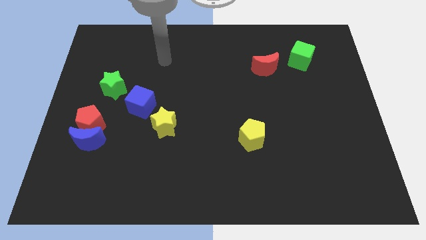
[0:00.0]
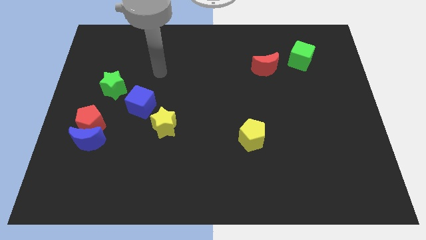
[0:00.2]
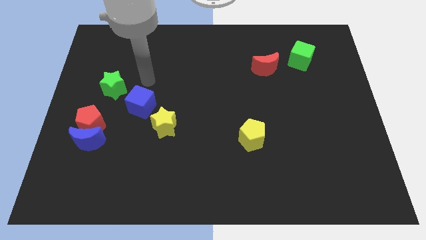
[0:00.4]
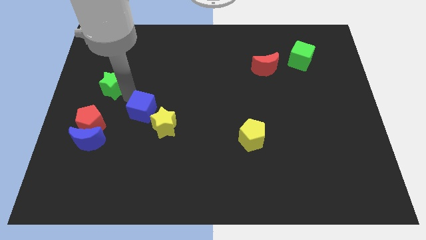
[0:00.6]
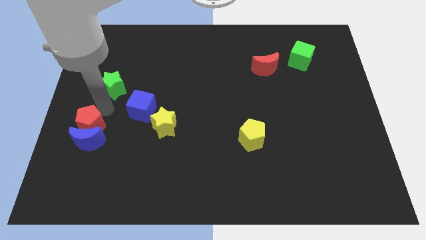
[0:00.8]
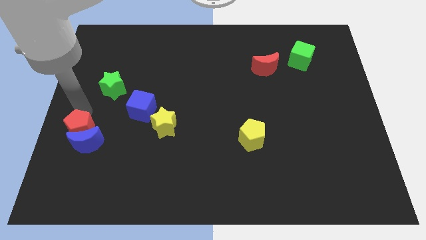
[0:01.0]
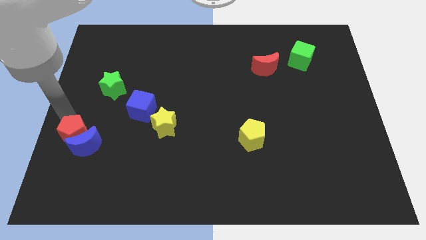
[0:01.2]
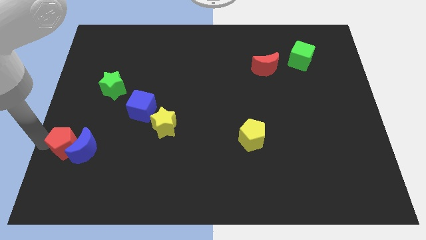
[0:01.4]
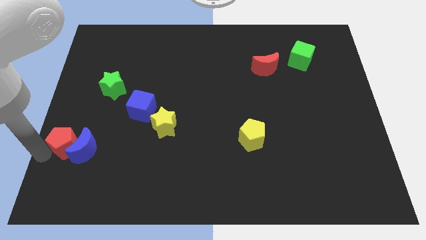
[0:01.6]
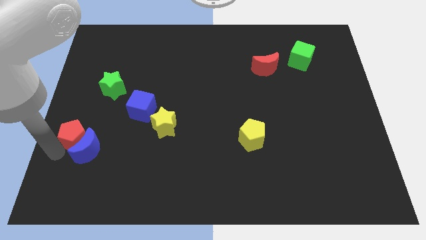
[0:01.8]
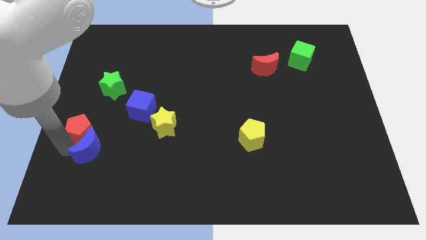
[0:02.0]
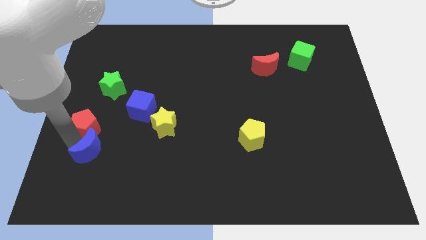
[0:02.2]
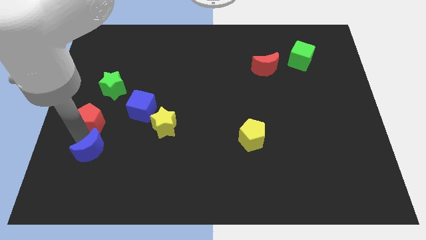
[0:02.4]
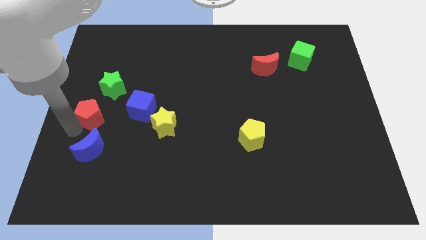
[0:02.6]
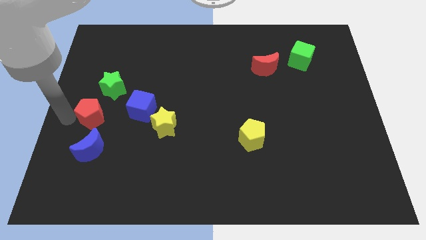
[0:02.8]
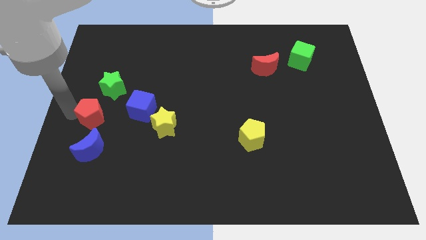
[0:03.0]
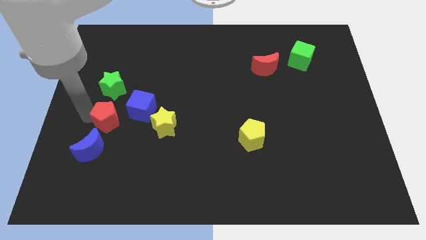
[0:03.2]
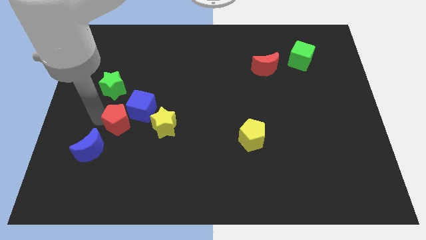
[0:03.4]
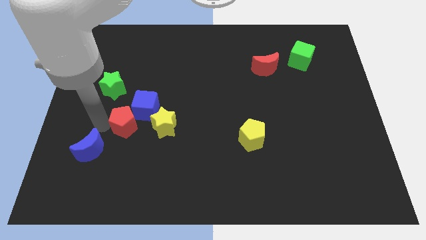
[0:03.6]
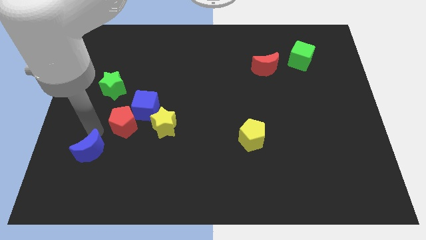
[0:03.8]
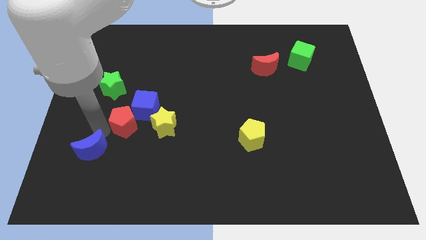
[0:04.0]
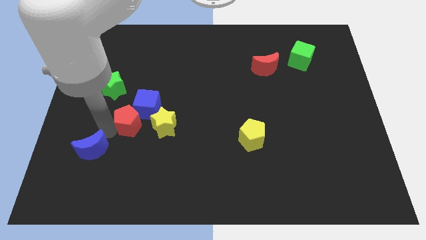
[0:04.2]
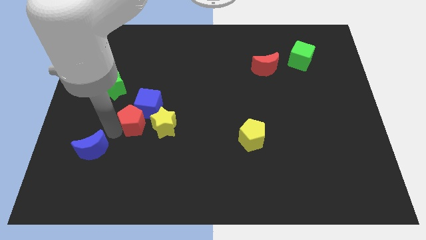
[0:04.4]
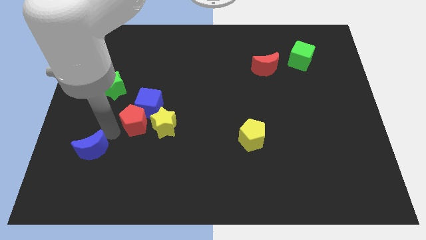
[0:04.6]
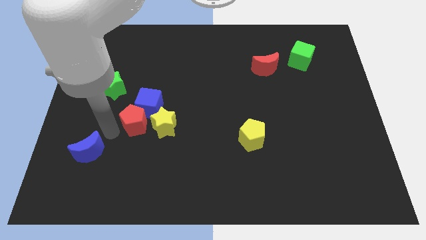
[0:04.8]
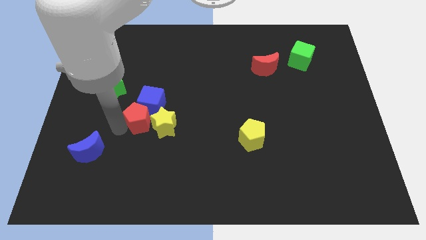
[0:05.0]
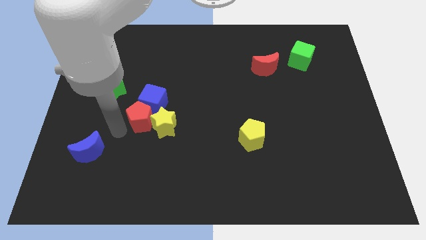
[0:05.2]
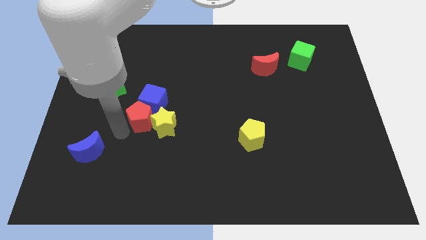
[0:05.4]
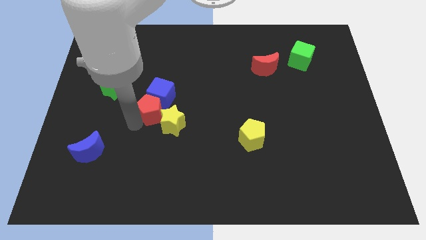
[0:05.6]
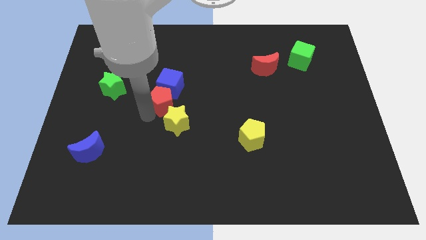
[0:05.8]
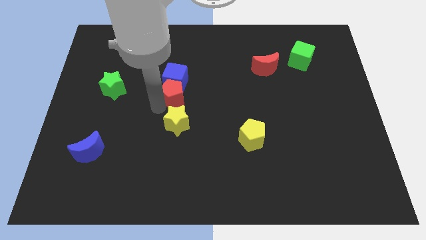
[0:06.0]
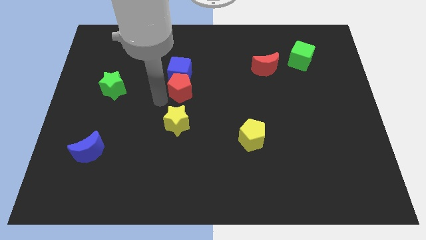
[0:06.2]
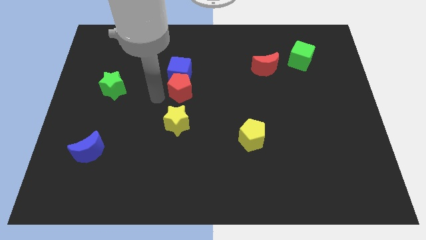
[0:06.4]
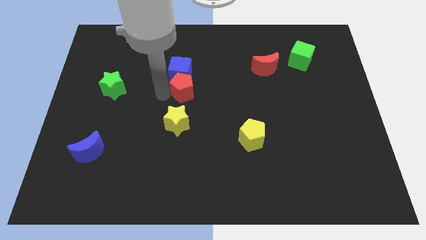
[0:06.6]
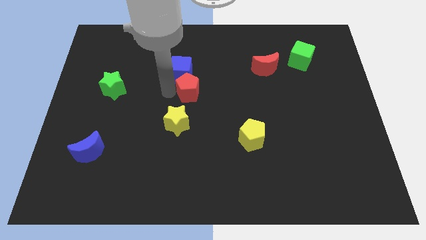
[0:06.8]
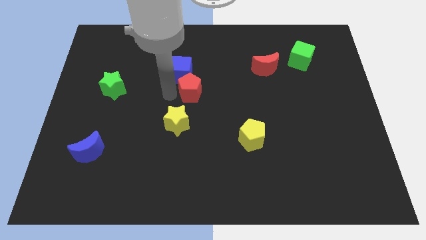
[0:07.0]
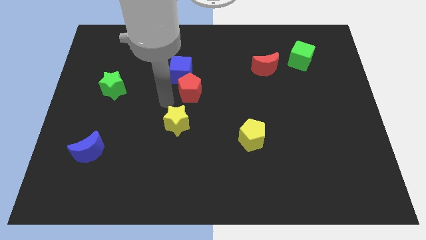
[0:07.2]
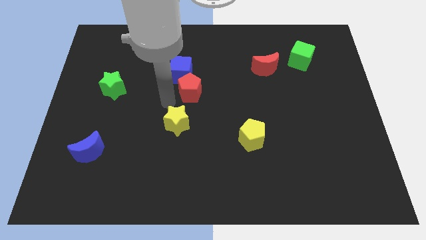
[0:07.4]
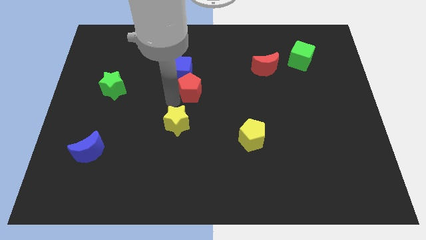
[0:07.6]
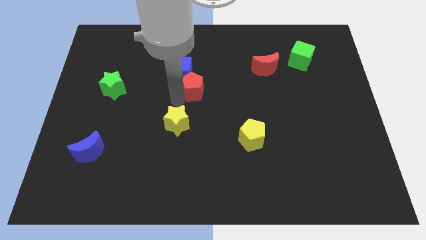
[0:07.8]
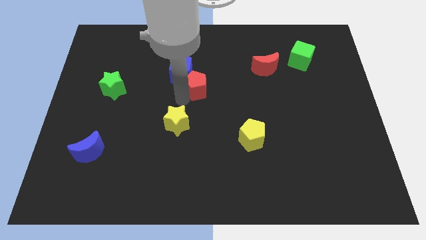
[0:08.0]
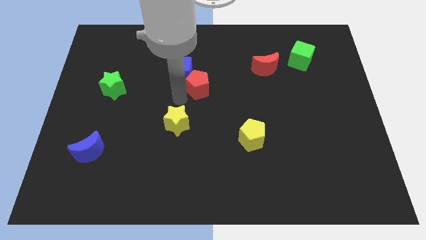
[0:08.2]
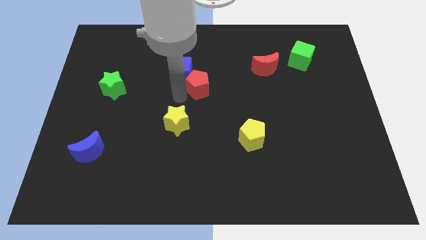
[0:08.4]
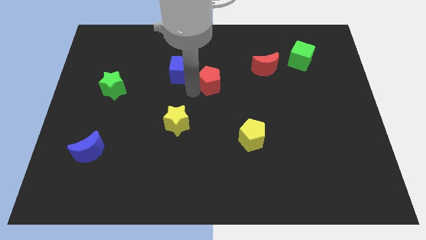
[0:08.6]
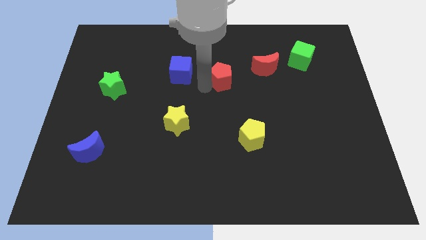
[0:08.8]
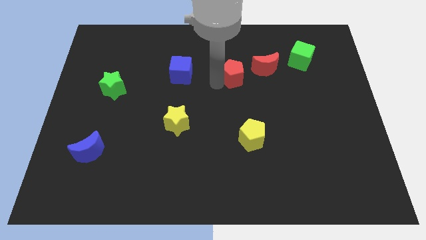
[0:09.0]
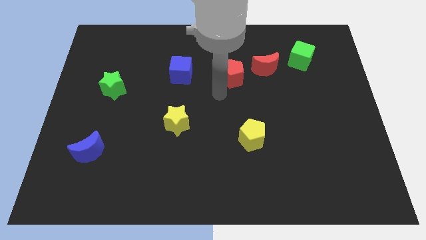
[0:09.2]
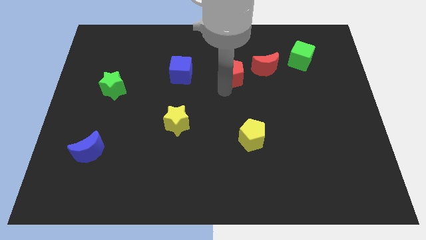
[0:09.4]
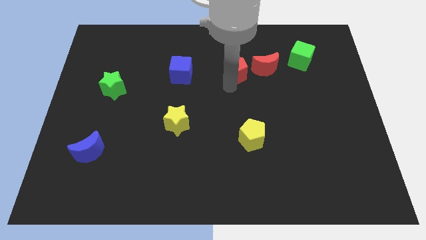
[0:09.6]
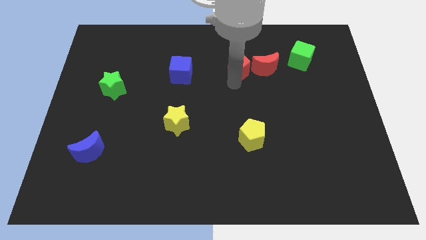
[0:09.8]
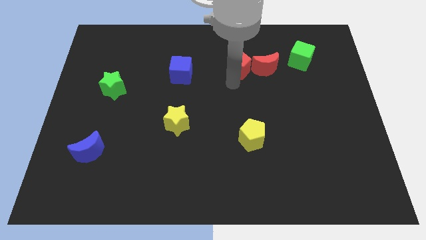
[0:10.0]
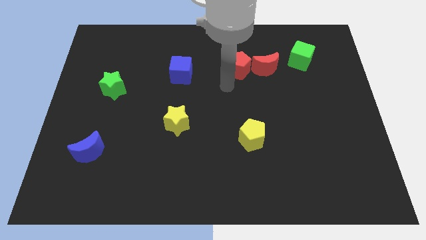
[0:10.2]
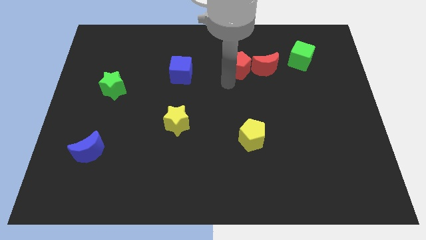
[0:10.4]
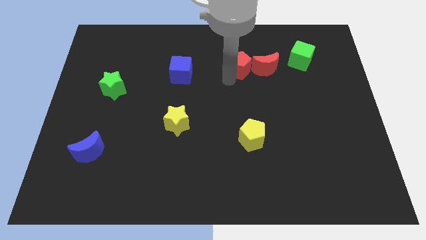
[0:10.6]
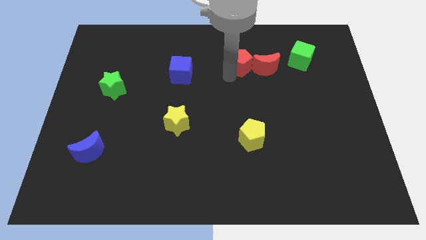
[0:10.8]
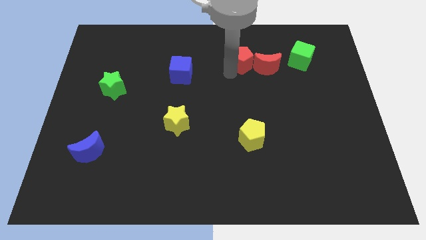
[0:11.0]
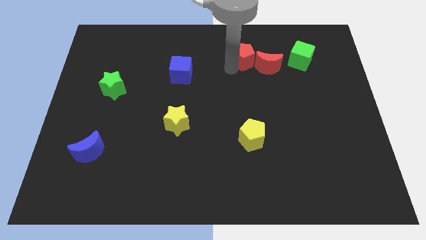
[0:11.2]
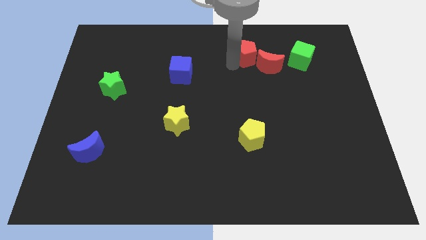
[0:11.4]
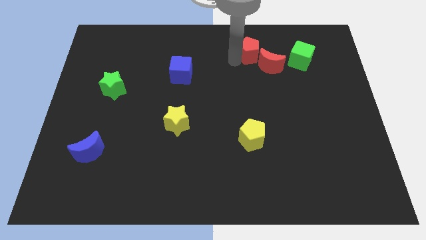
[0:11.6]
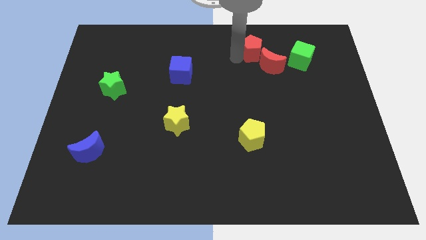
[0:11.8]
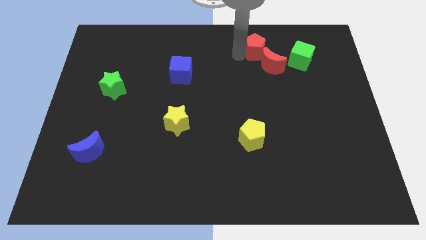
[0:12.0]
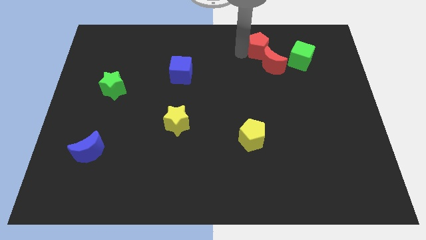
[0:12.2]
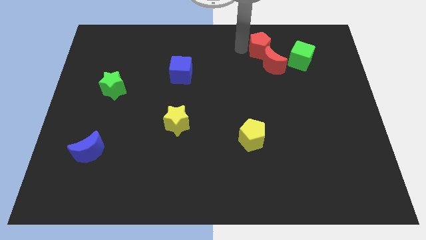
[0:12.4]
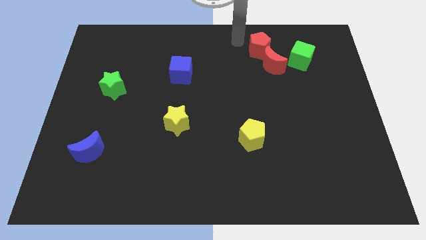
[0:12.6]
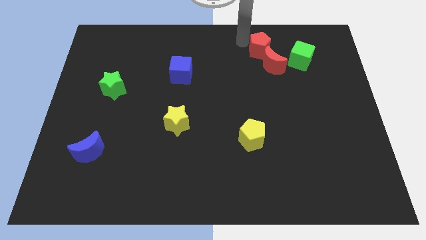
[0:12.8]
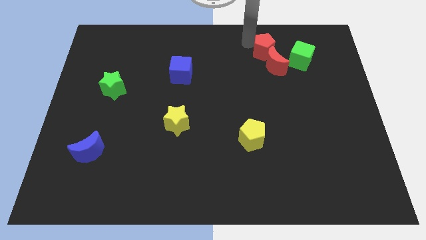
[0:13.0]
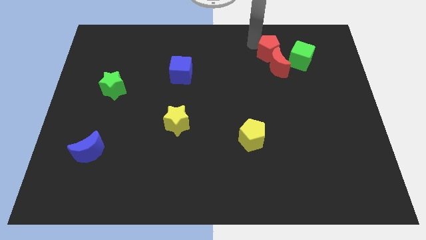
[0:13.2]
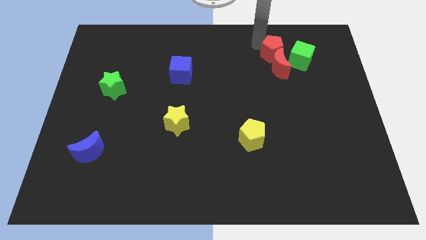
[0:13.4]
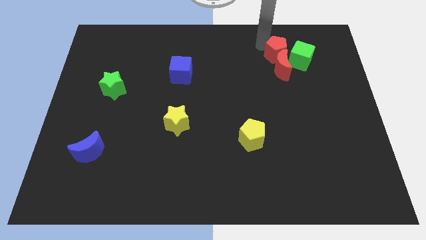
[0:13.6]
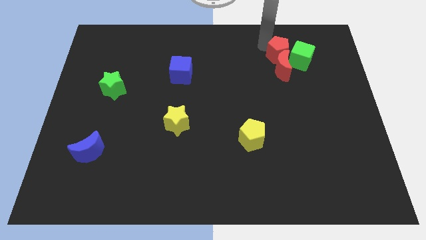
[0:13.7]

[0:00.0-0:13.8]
slide the red pentagon next to the green cube
